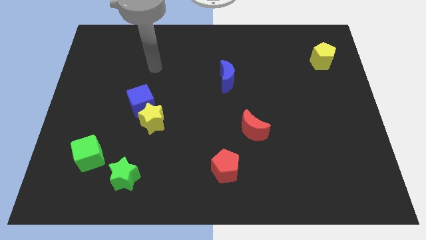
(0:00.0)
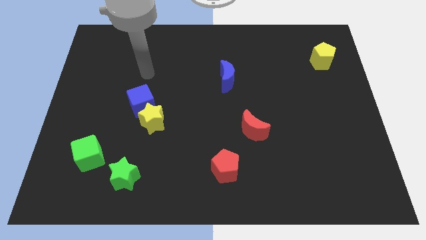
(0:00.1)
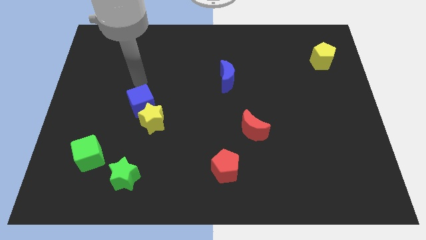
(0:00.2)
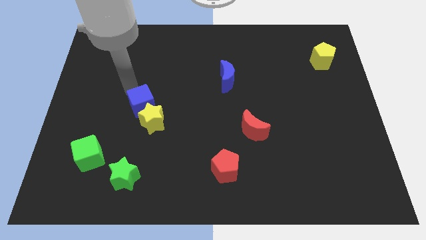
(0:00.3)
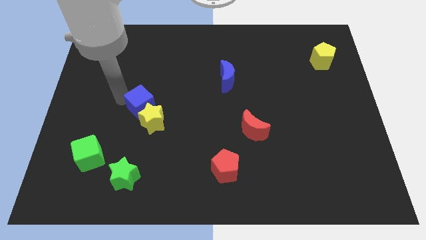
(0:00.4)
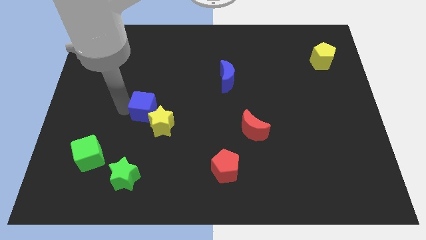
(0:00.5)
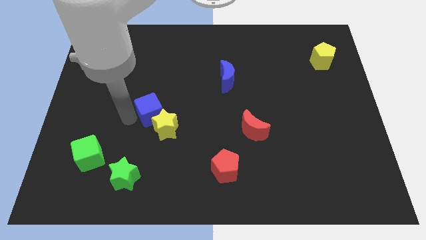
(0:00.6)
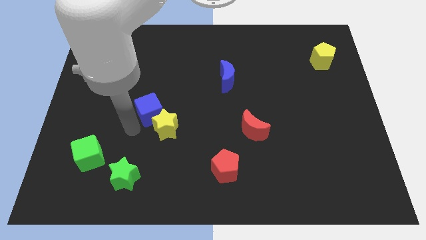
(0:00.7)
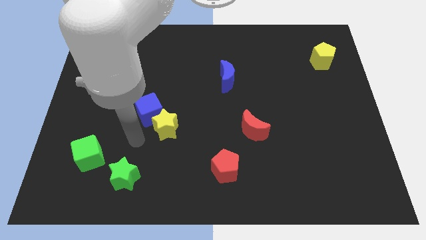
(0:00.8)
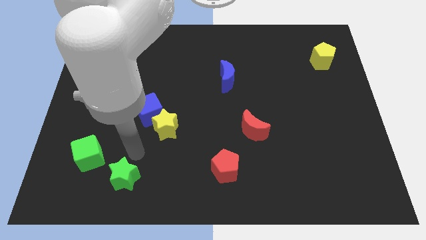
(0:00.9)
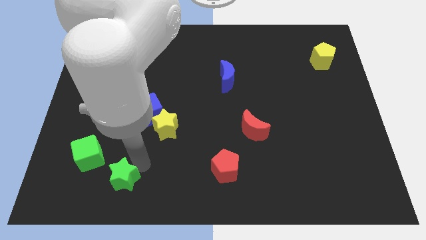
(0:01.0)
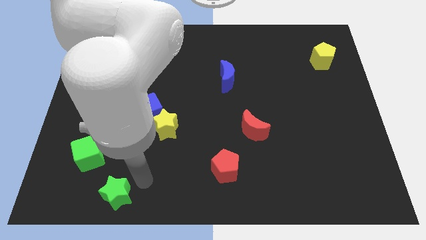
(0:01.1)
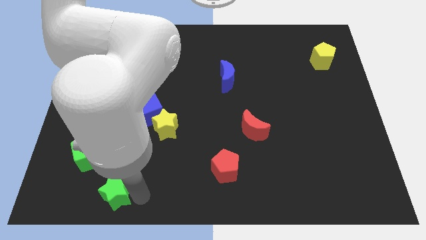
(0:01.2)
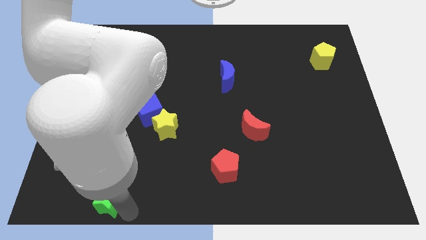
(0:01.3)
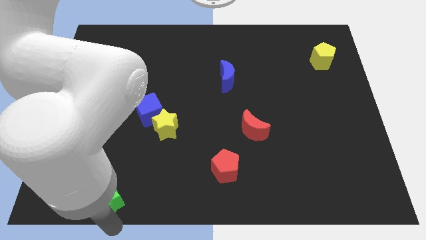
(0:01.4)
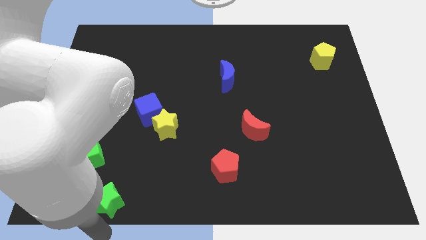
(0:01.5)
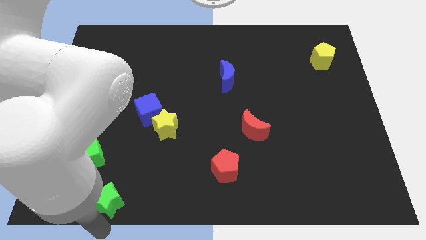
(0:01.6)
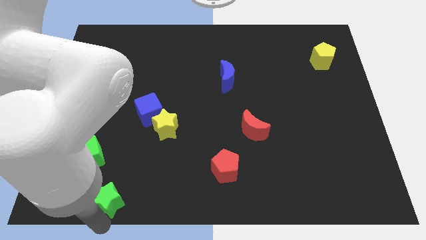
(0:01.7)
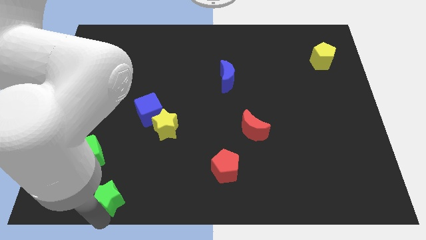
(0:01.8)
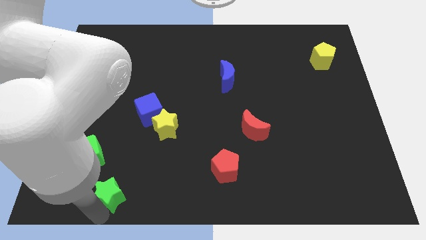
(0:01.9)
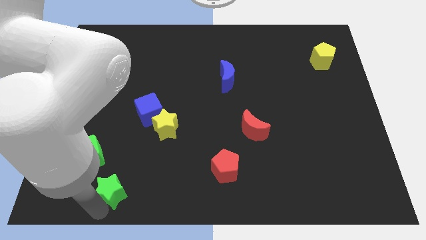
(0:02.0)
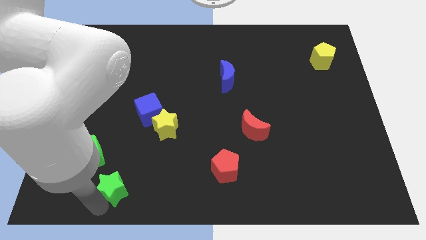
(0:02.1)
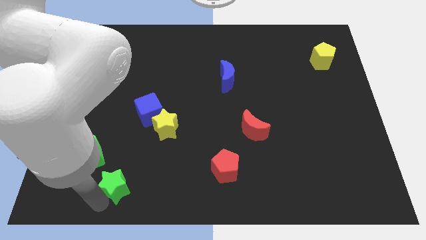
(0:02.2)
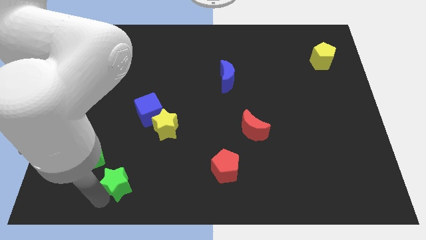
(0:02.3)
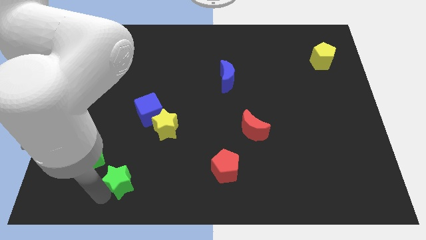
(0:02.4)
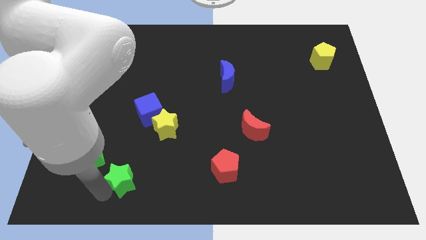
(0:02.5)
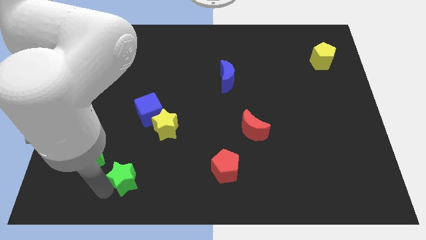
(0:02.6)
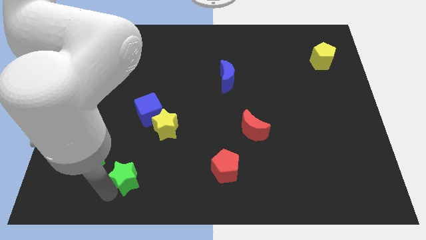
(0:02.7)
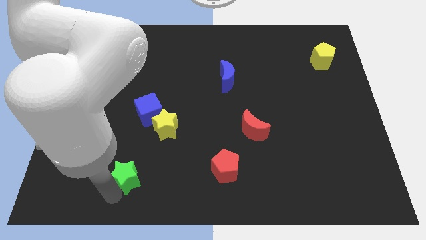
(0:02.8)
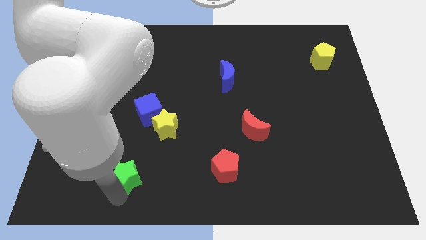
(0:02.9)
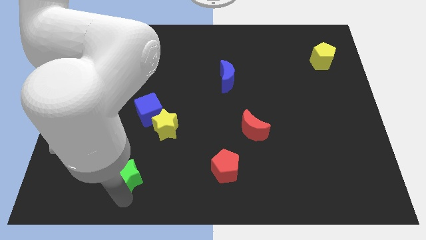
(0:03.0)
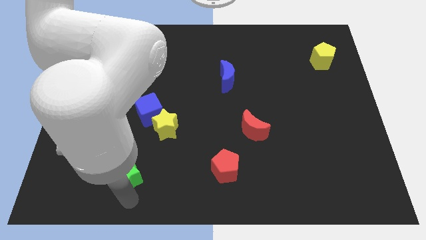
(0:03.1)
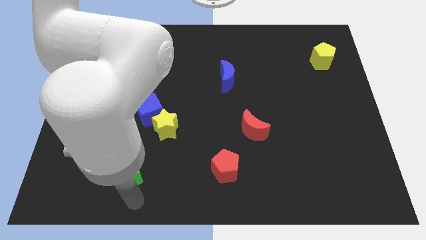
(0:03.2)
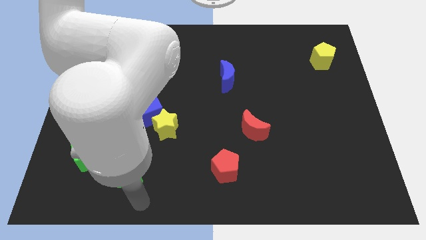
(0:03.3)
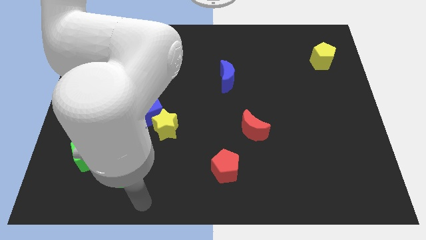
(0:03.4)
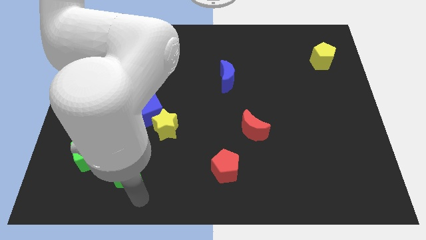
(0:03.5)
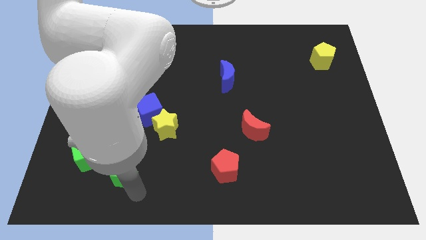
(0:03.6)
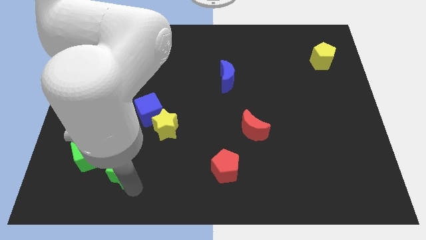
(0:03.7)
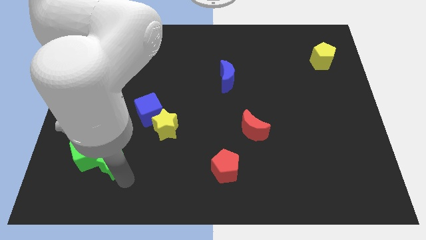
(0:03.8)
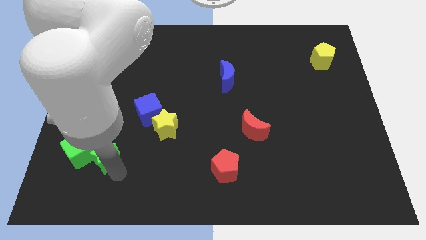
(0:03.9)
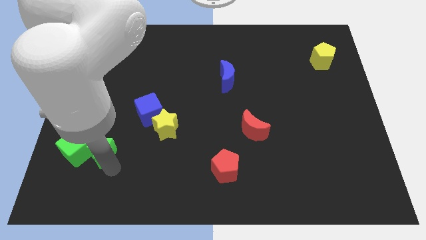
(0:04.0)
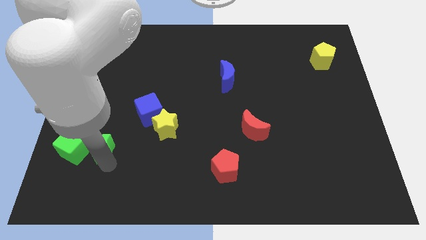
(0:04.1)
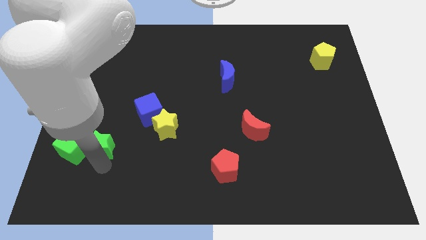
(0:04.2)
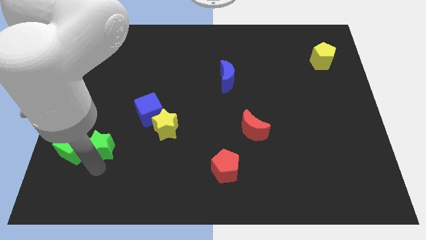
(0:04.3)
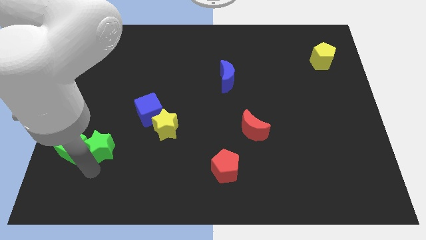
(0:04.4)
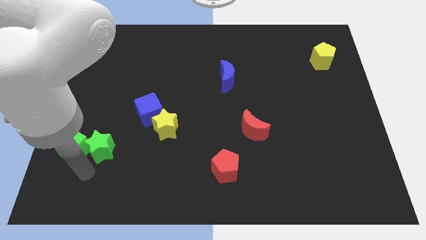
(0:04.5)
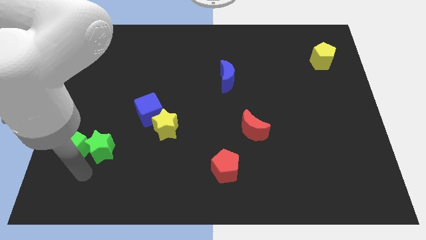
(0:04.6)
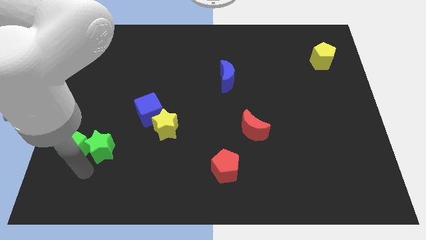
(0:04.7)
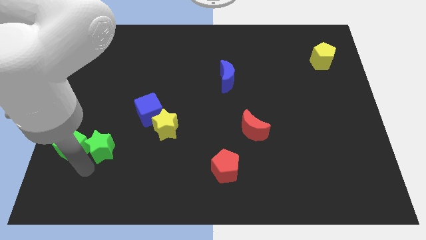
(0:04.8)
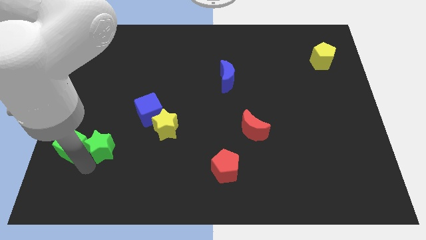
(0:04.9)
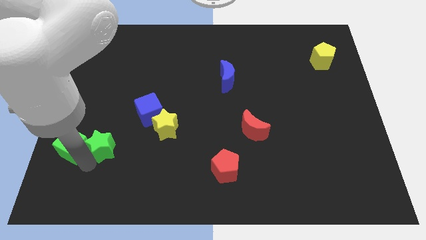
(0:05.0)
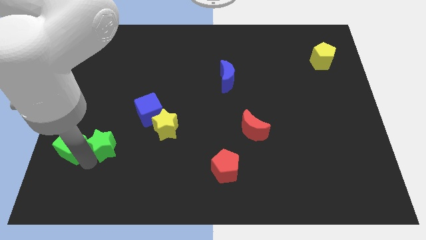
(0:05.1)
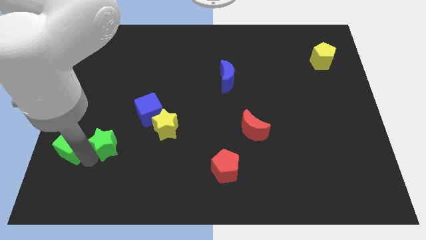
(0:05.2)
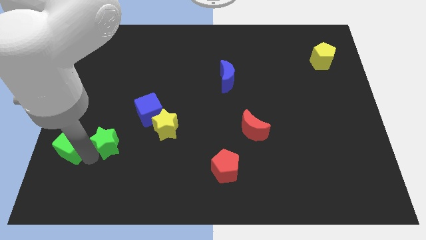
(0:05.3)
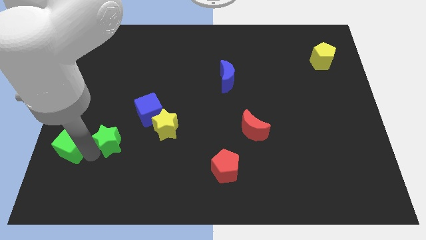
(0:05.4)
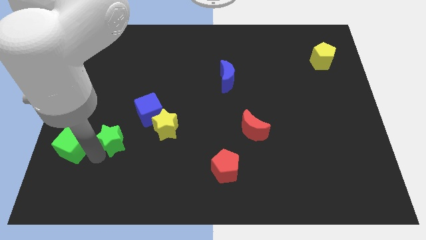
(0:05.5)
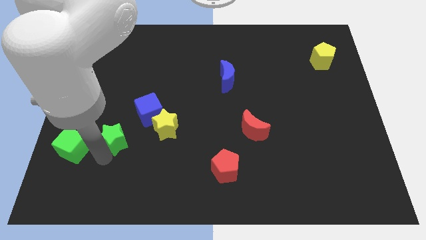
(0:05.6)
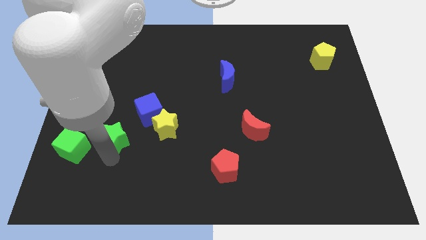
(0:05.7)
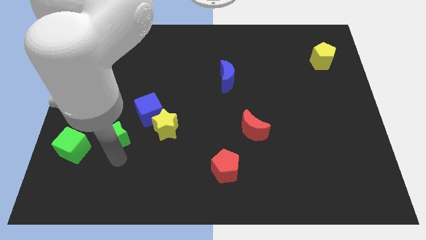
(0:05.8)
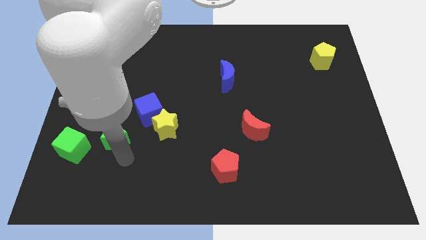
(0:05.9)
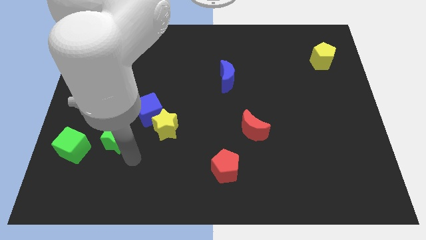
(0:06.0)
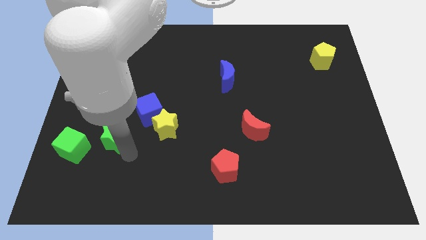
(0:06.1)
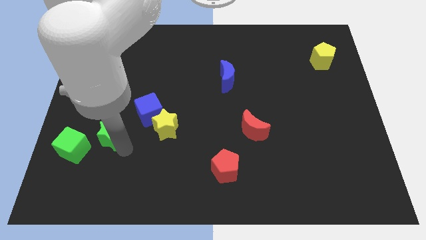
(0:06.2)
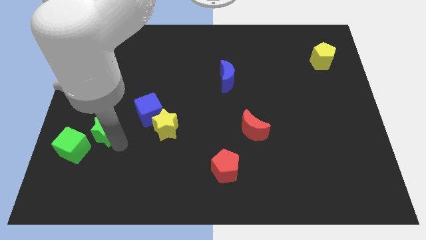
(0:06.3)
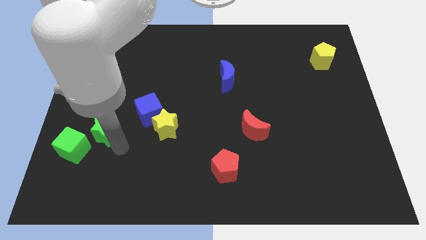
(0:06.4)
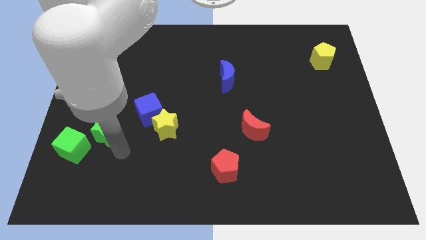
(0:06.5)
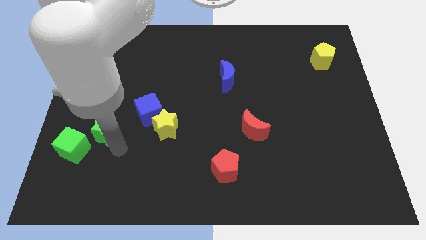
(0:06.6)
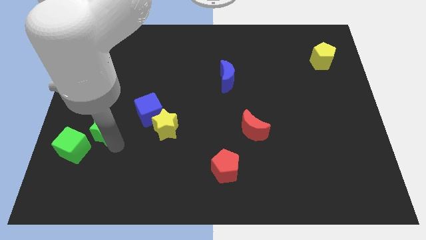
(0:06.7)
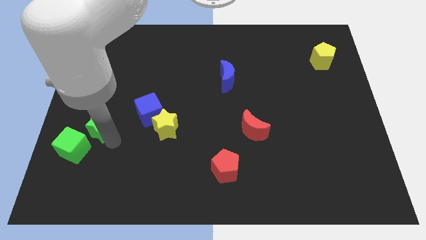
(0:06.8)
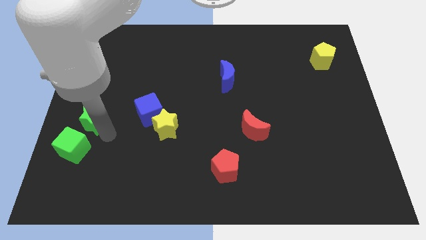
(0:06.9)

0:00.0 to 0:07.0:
move the green star to the left side of the board

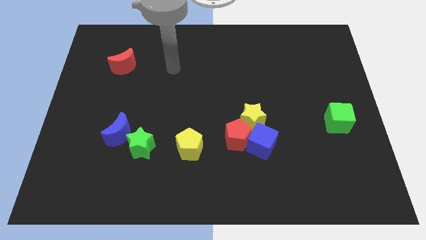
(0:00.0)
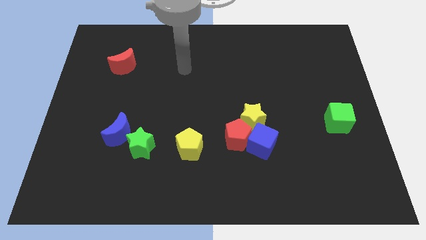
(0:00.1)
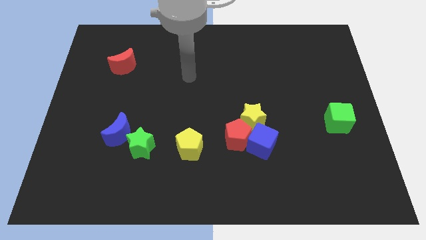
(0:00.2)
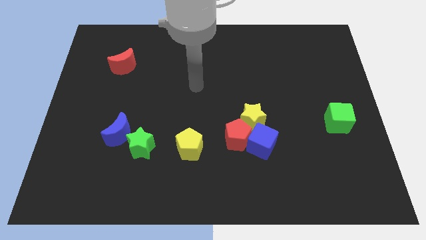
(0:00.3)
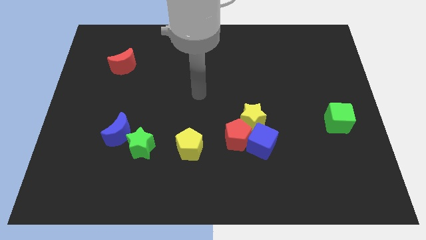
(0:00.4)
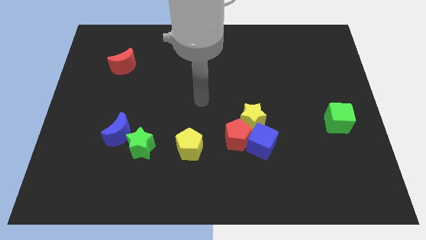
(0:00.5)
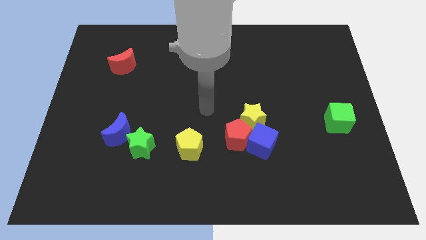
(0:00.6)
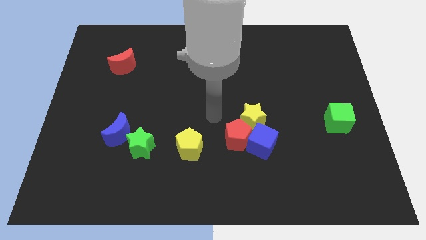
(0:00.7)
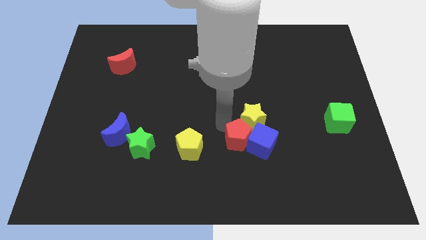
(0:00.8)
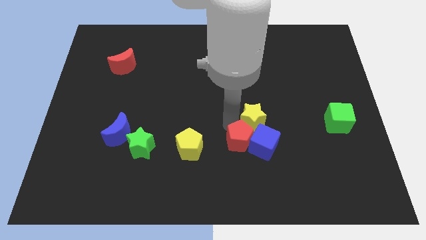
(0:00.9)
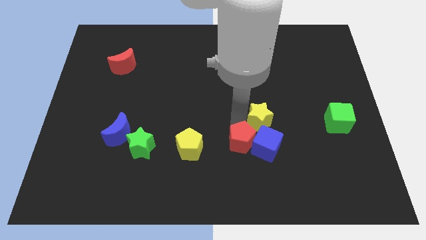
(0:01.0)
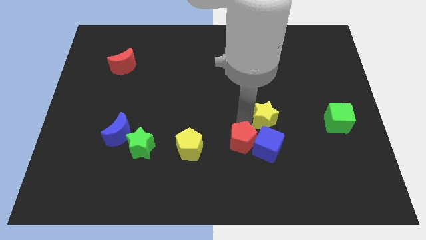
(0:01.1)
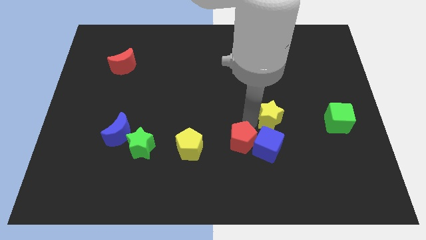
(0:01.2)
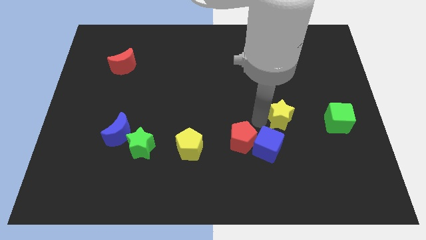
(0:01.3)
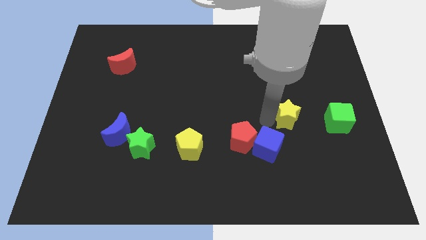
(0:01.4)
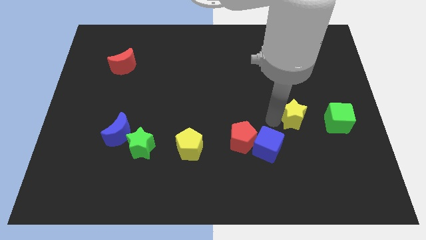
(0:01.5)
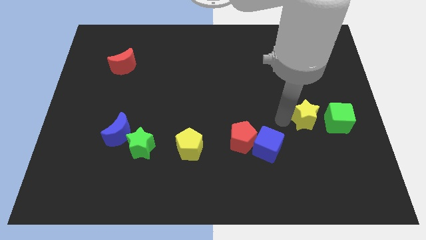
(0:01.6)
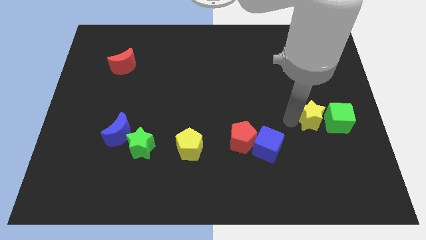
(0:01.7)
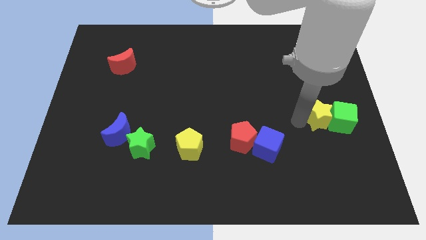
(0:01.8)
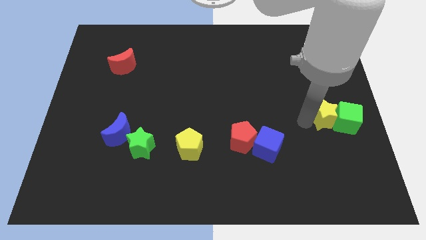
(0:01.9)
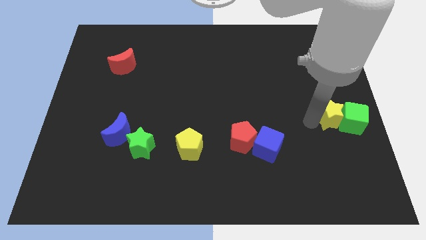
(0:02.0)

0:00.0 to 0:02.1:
push the yellow star to the right side
